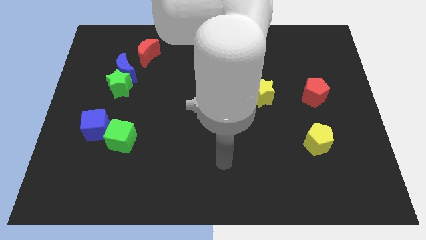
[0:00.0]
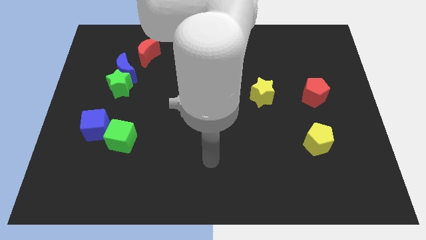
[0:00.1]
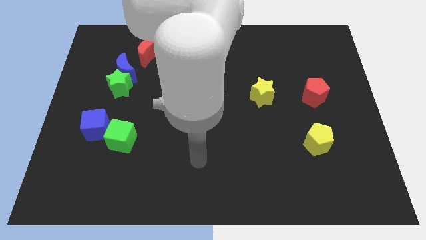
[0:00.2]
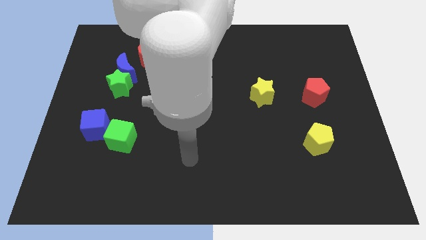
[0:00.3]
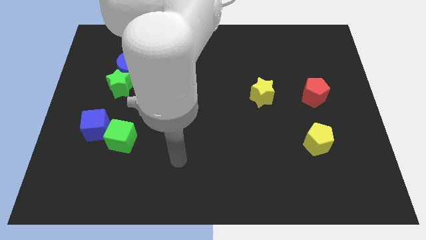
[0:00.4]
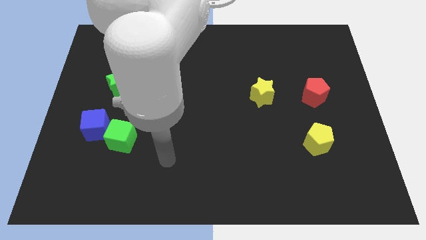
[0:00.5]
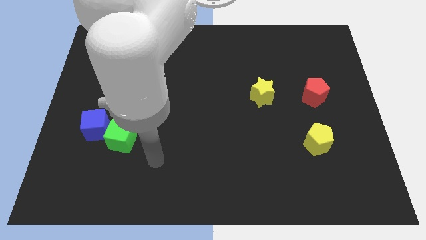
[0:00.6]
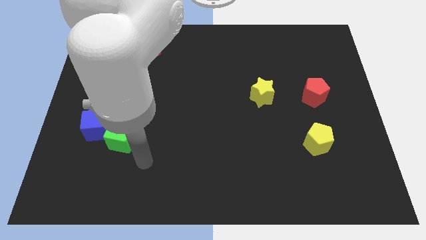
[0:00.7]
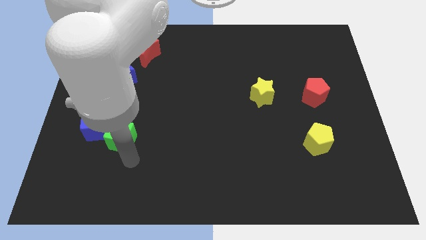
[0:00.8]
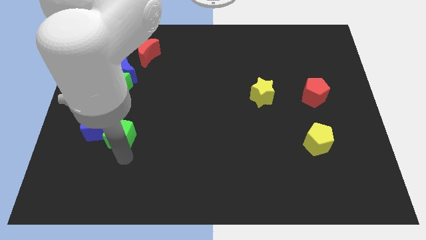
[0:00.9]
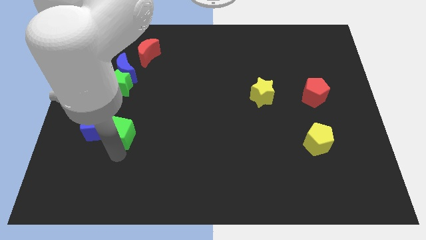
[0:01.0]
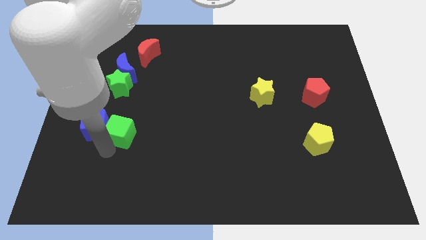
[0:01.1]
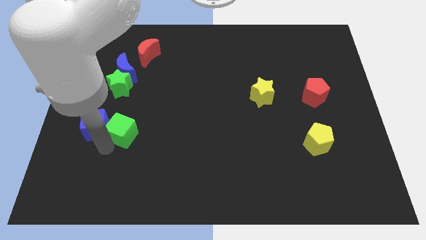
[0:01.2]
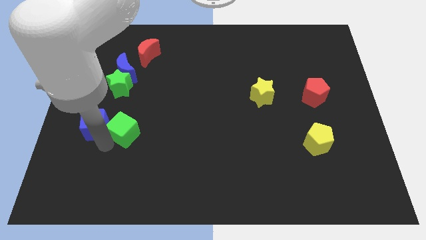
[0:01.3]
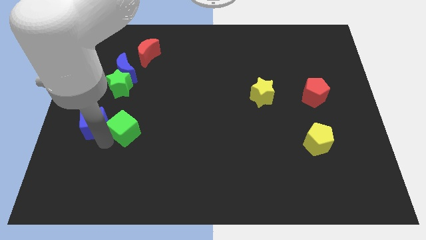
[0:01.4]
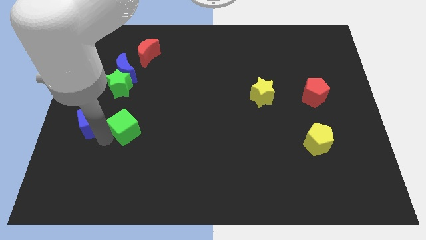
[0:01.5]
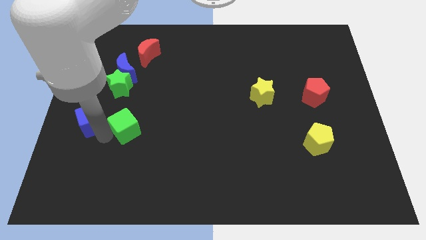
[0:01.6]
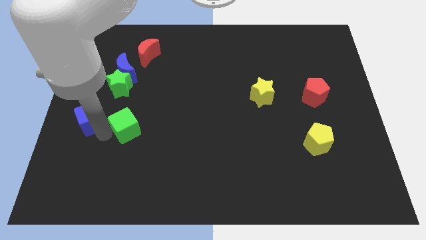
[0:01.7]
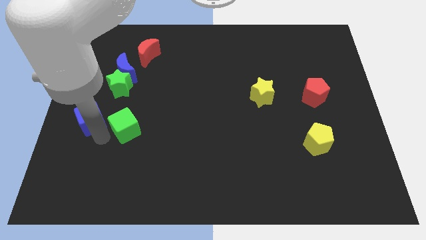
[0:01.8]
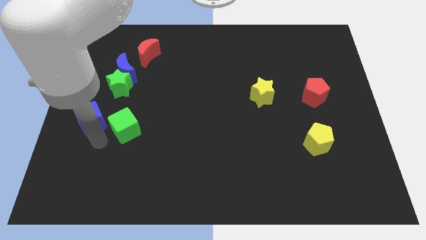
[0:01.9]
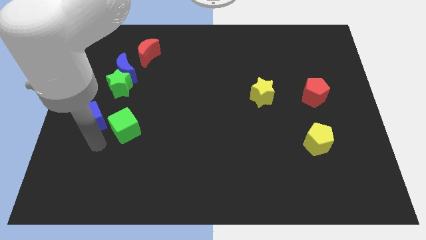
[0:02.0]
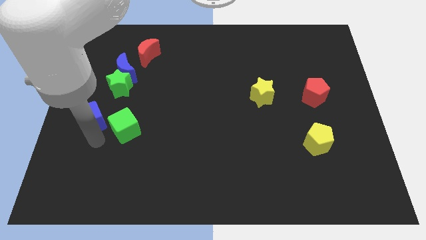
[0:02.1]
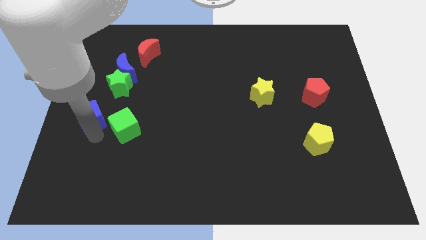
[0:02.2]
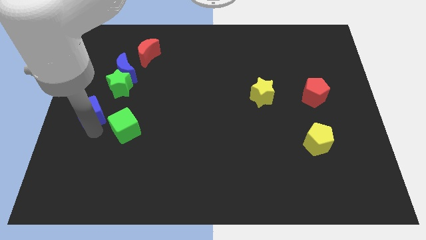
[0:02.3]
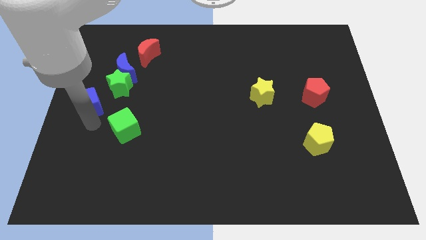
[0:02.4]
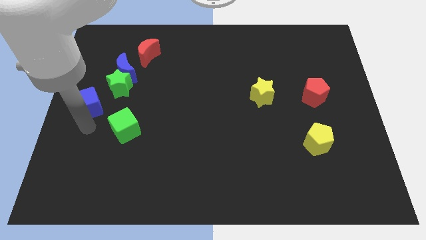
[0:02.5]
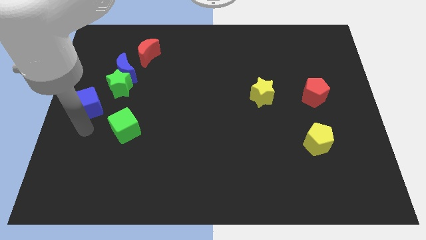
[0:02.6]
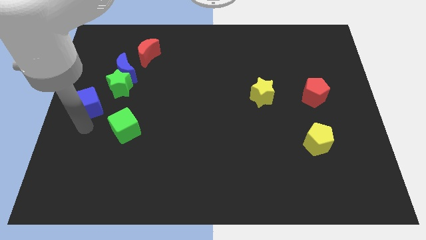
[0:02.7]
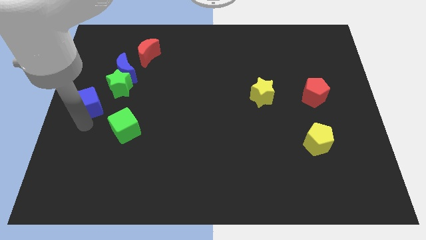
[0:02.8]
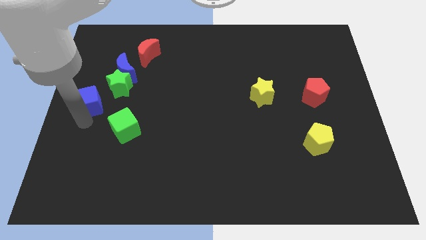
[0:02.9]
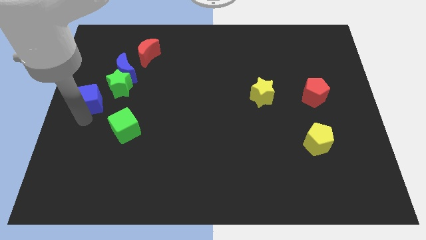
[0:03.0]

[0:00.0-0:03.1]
slightly move the blue cube up

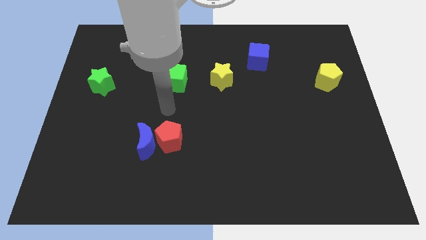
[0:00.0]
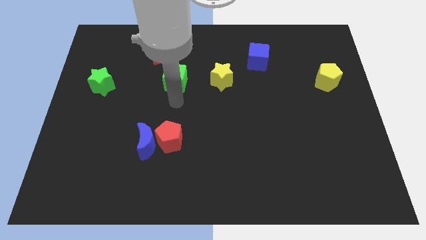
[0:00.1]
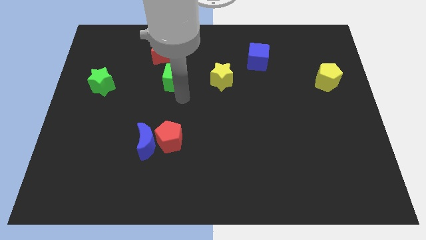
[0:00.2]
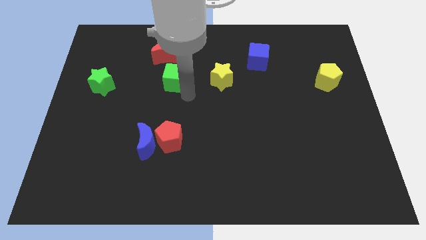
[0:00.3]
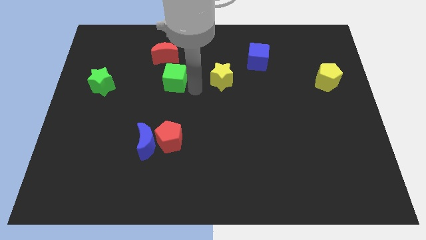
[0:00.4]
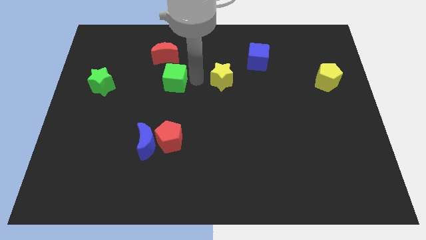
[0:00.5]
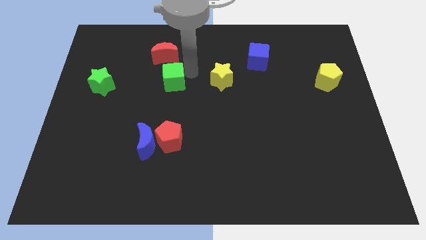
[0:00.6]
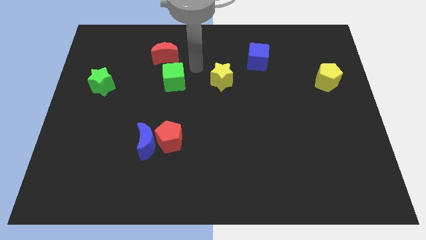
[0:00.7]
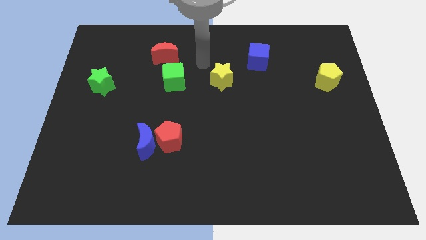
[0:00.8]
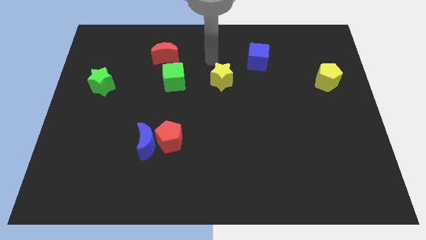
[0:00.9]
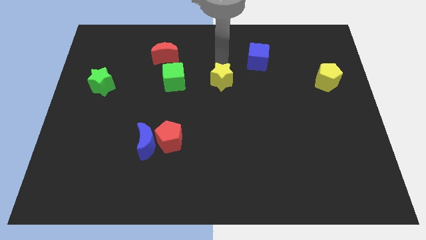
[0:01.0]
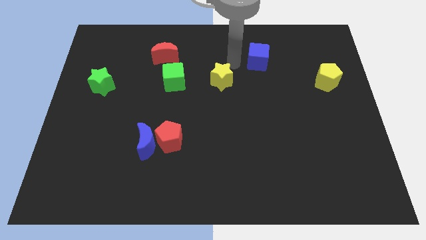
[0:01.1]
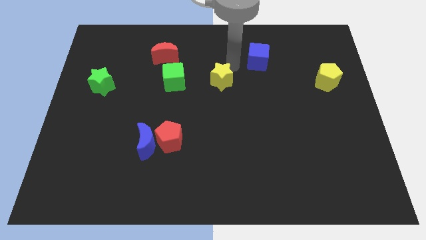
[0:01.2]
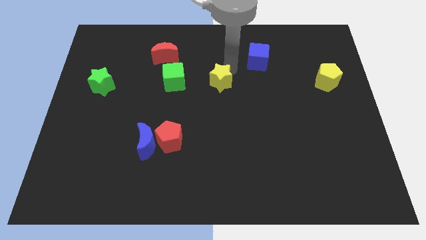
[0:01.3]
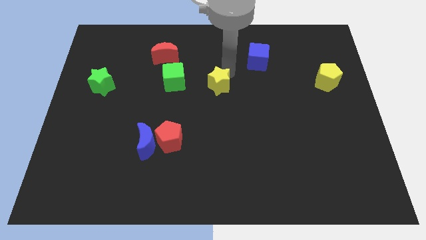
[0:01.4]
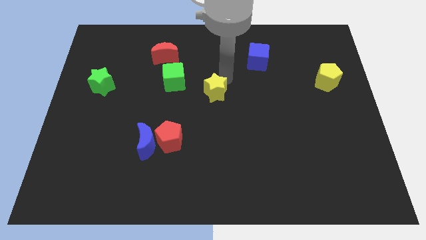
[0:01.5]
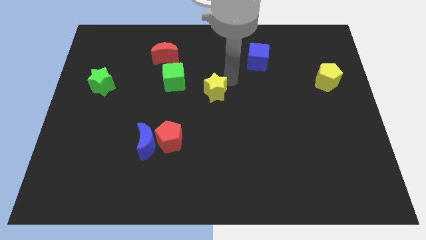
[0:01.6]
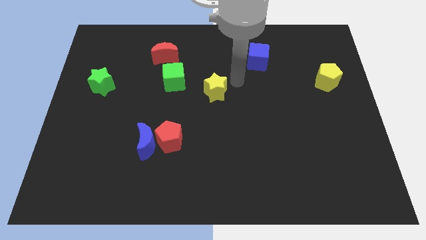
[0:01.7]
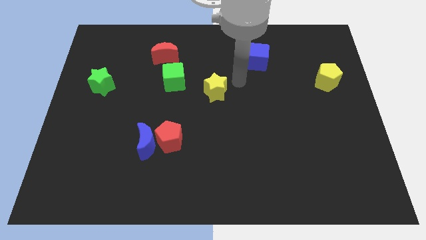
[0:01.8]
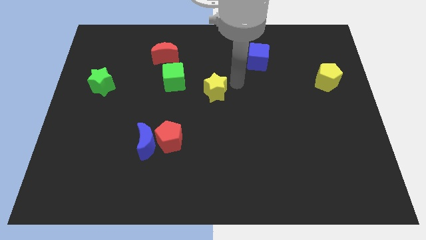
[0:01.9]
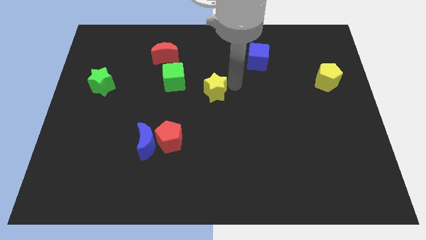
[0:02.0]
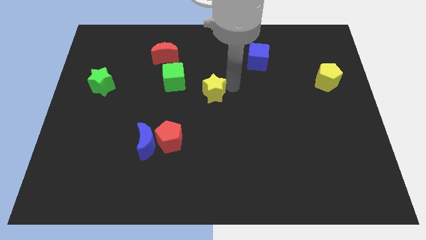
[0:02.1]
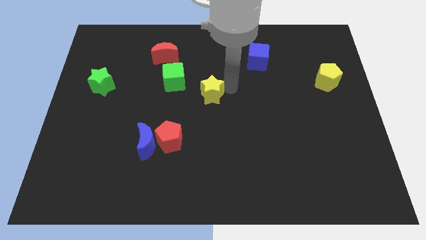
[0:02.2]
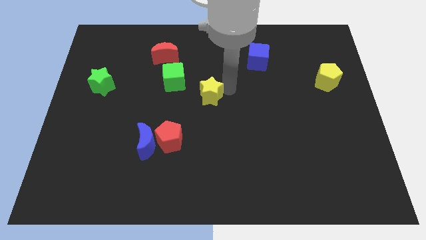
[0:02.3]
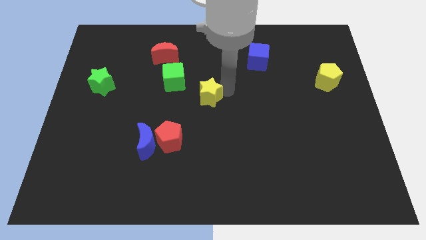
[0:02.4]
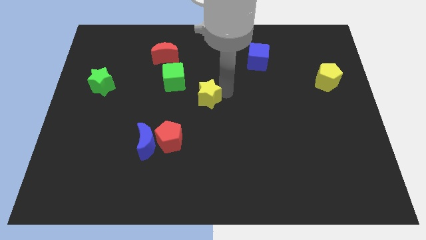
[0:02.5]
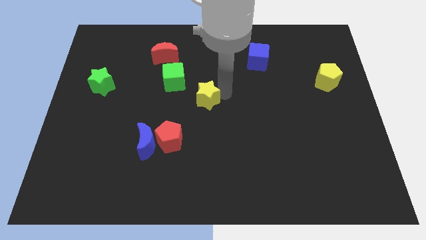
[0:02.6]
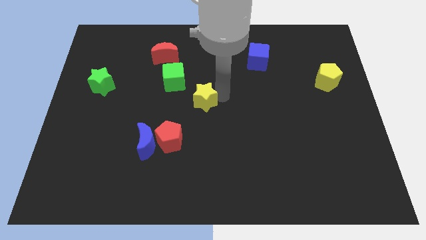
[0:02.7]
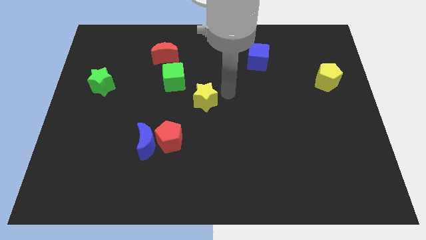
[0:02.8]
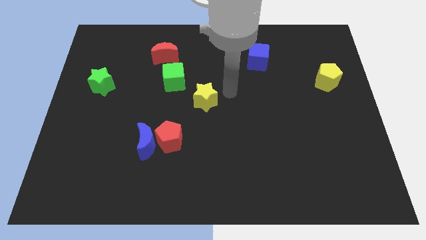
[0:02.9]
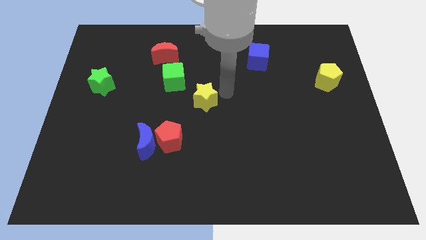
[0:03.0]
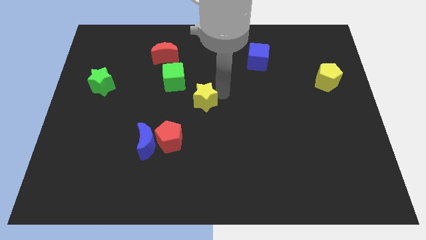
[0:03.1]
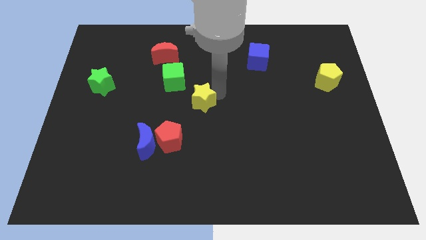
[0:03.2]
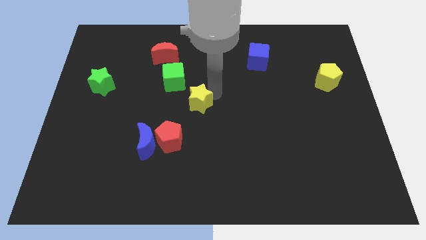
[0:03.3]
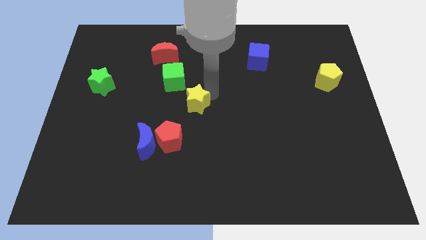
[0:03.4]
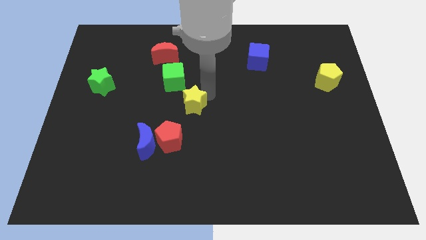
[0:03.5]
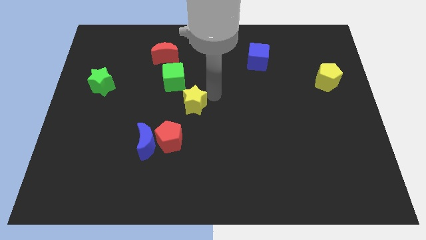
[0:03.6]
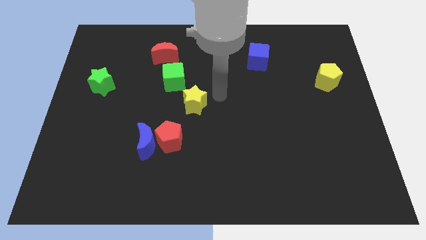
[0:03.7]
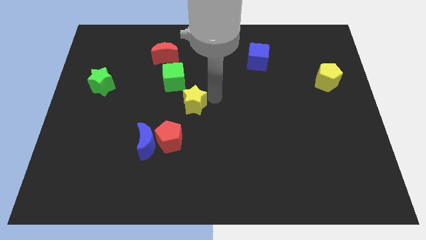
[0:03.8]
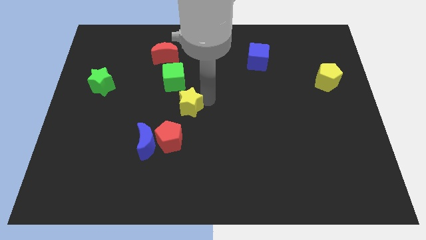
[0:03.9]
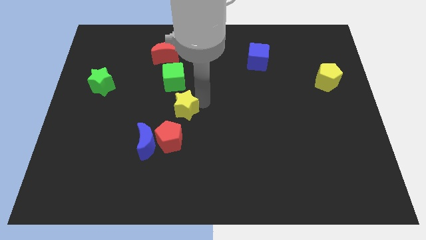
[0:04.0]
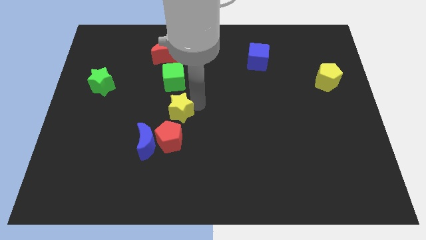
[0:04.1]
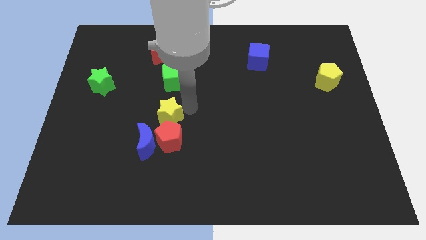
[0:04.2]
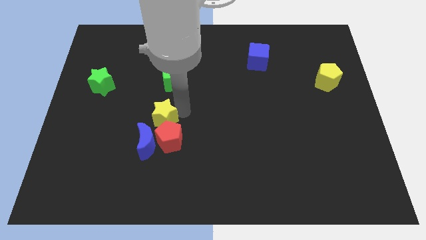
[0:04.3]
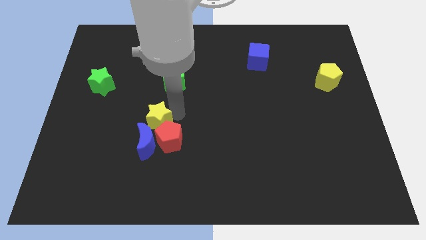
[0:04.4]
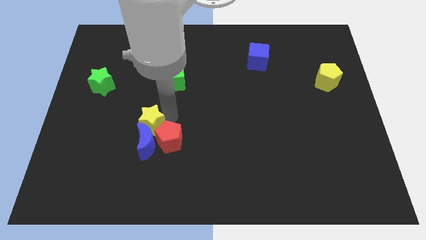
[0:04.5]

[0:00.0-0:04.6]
slide the yellow star down and left

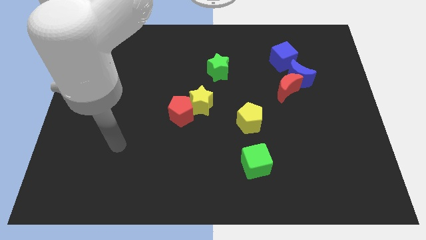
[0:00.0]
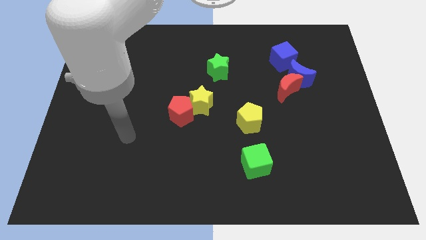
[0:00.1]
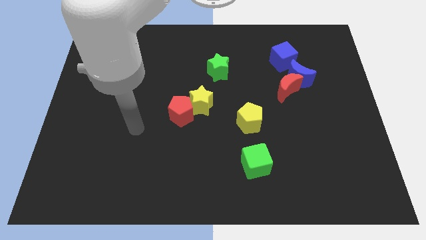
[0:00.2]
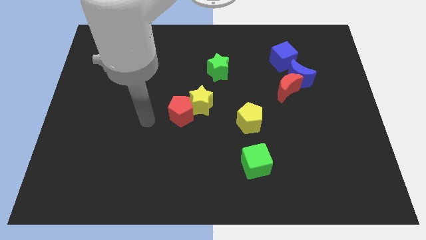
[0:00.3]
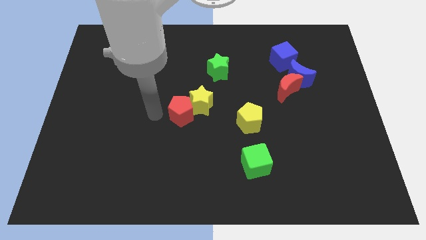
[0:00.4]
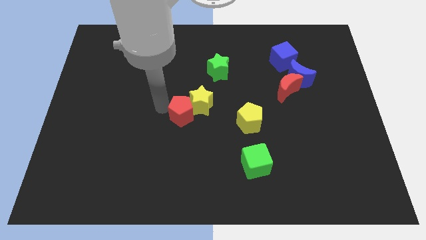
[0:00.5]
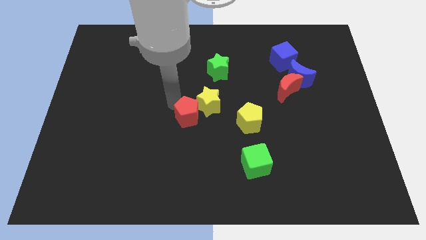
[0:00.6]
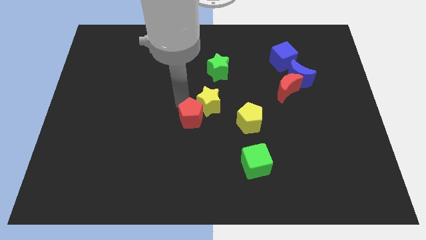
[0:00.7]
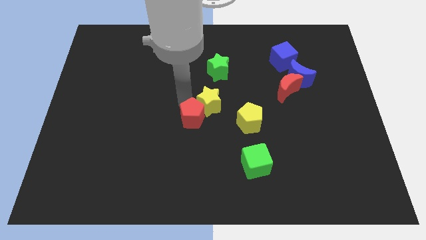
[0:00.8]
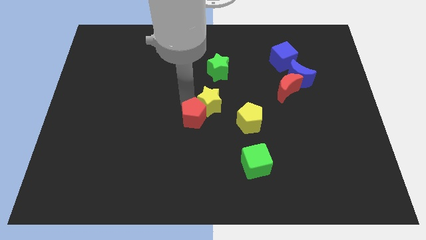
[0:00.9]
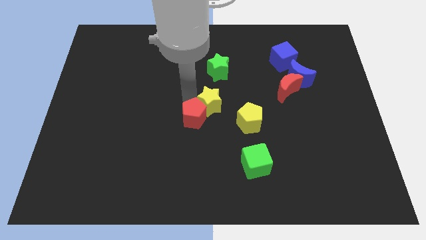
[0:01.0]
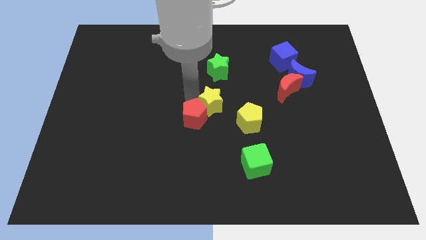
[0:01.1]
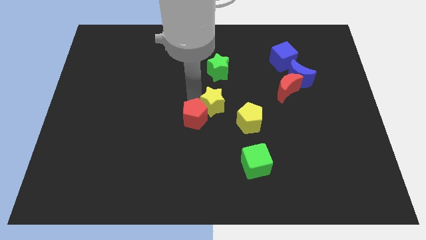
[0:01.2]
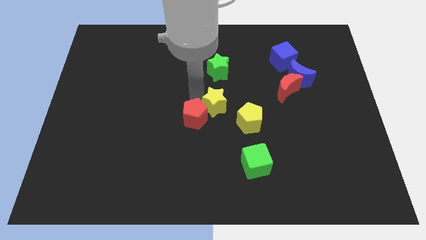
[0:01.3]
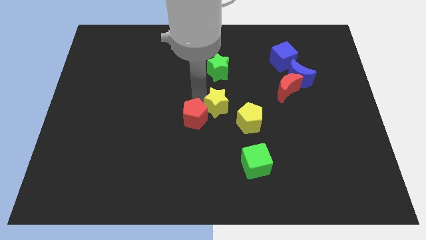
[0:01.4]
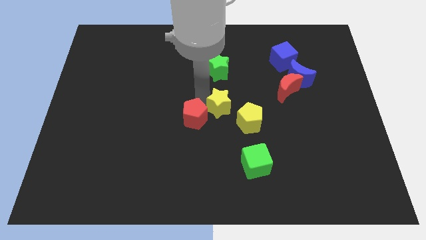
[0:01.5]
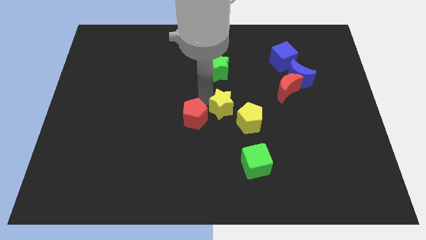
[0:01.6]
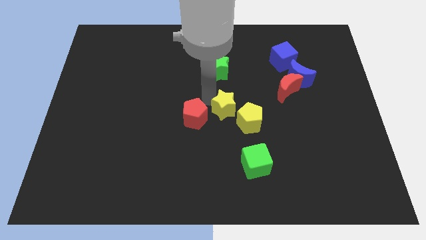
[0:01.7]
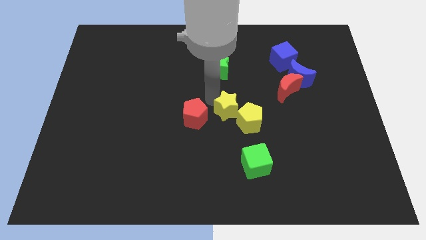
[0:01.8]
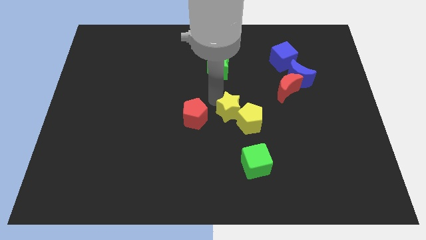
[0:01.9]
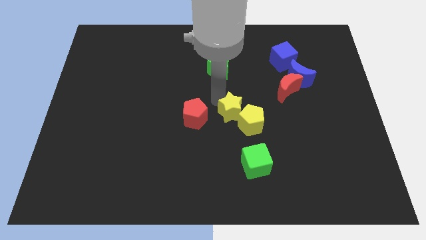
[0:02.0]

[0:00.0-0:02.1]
slightly push the yellow star right
